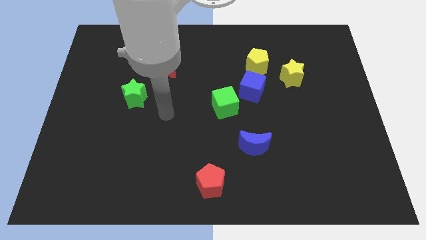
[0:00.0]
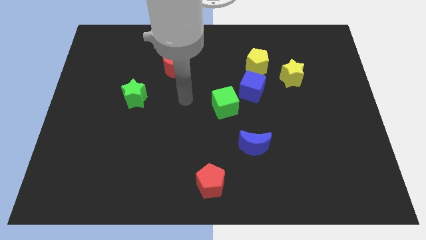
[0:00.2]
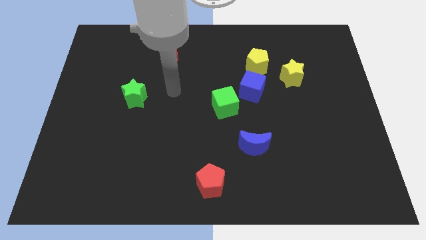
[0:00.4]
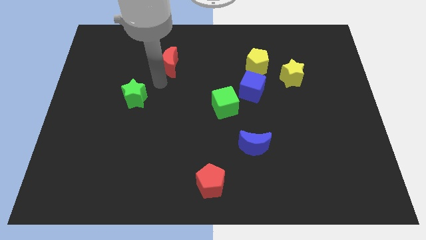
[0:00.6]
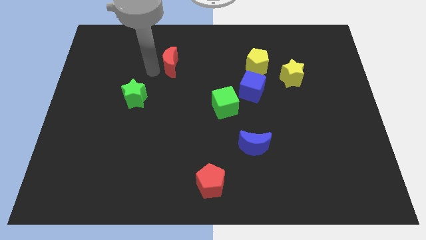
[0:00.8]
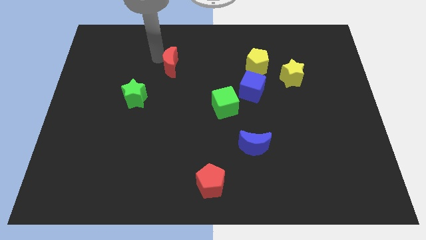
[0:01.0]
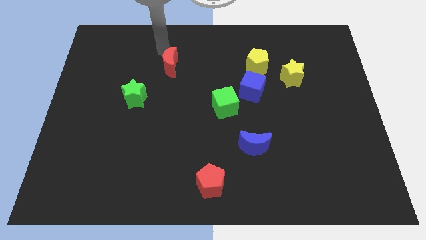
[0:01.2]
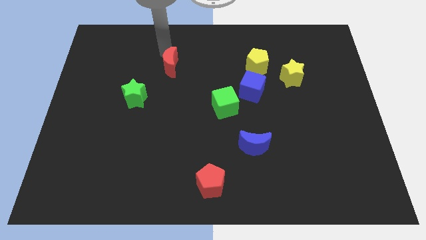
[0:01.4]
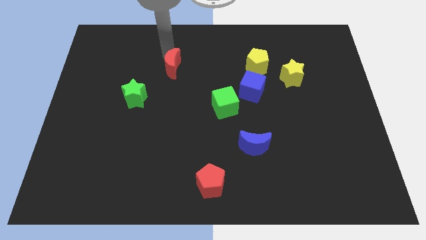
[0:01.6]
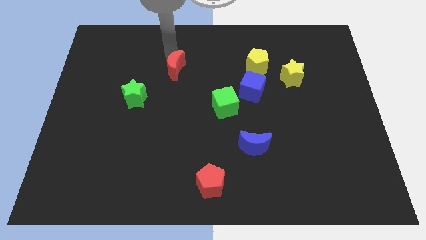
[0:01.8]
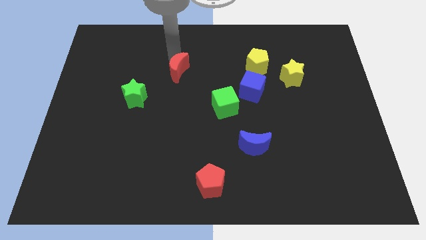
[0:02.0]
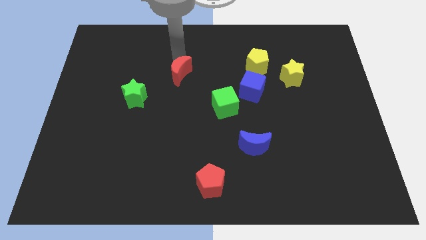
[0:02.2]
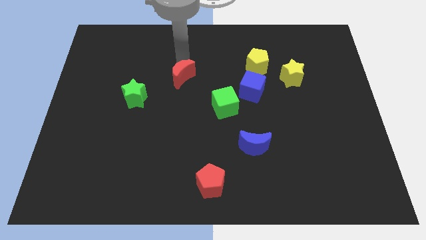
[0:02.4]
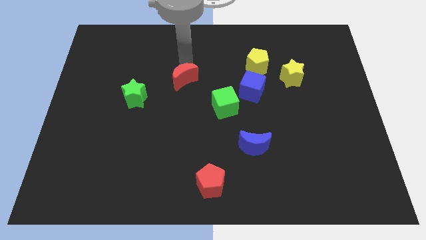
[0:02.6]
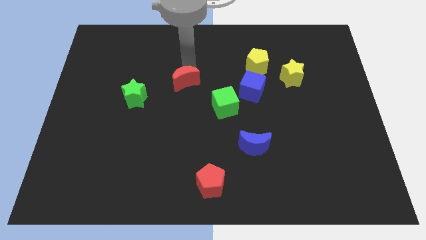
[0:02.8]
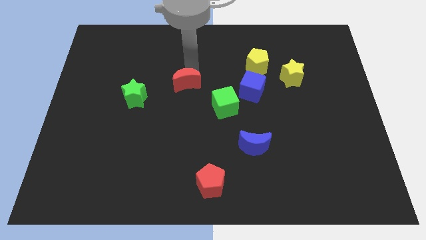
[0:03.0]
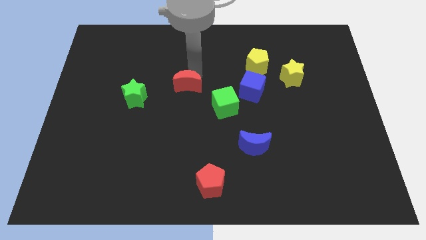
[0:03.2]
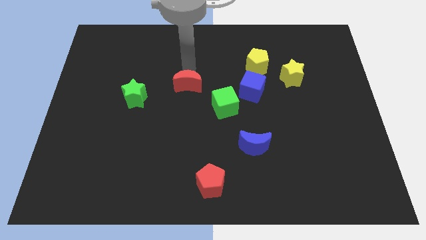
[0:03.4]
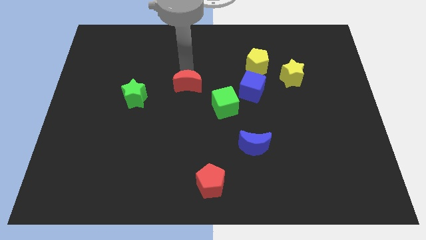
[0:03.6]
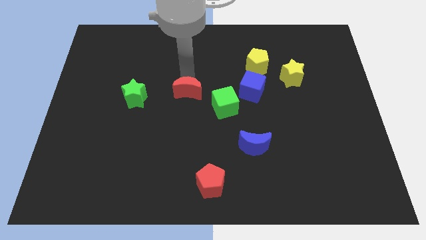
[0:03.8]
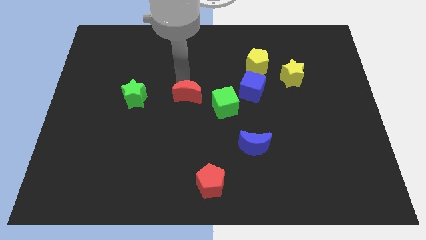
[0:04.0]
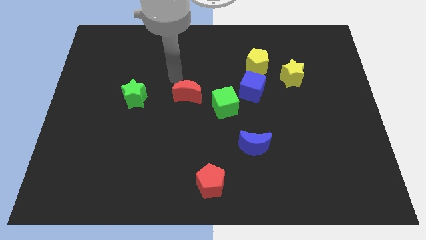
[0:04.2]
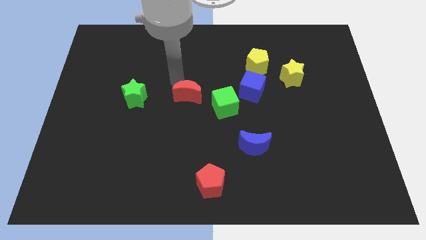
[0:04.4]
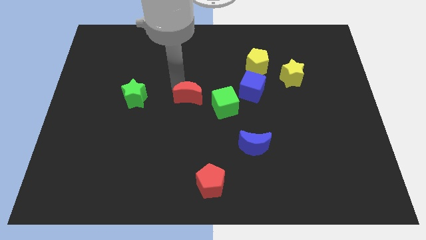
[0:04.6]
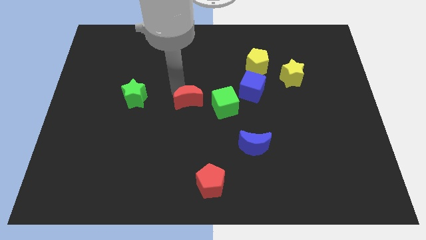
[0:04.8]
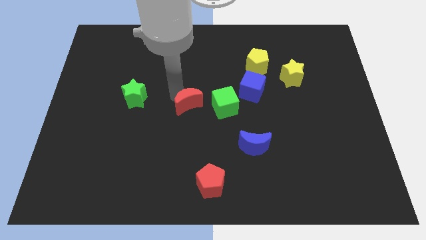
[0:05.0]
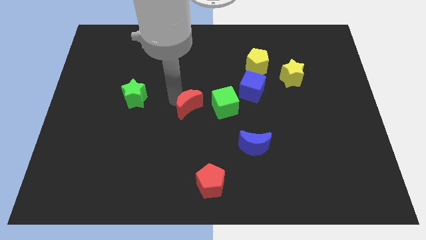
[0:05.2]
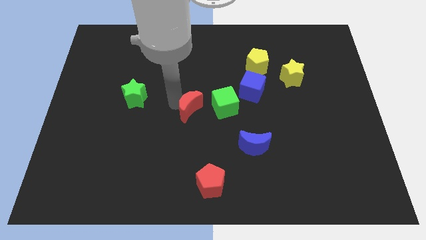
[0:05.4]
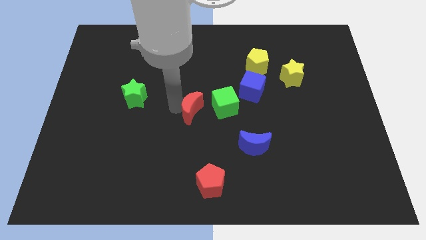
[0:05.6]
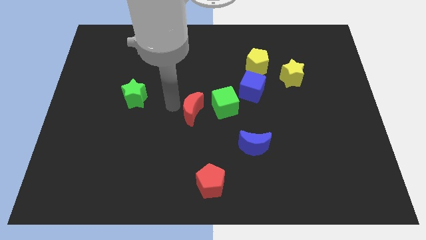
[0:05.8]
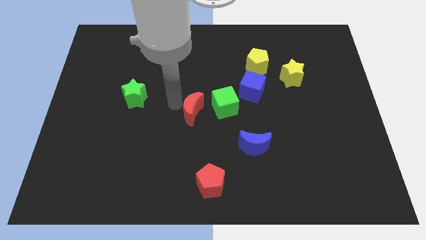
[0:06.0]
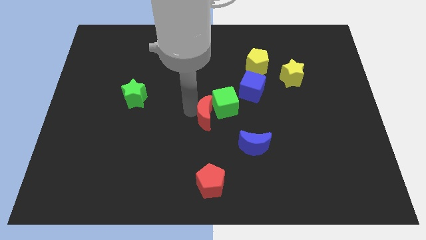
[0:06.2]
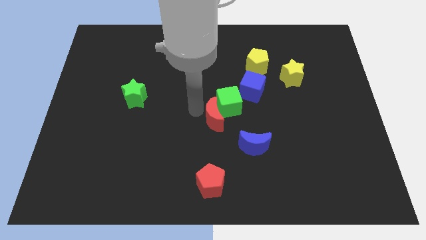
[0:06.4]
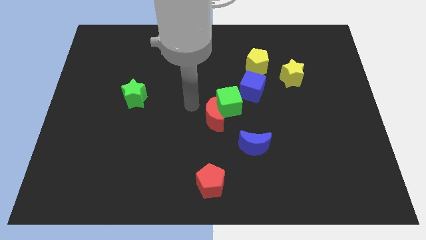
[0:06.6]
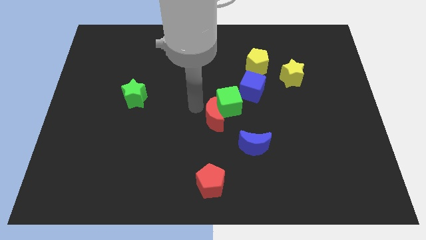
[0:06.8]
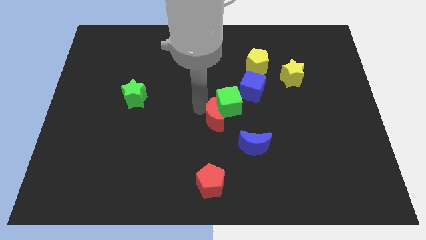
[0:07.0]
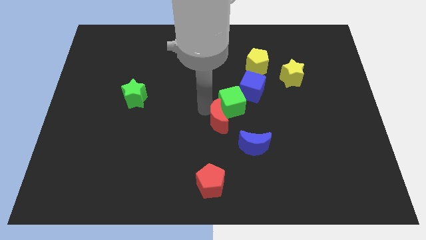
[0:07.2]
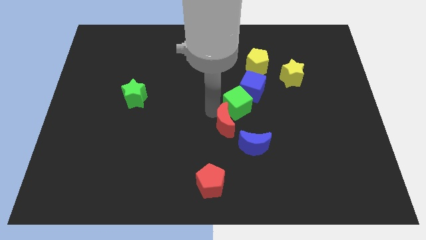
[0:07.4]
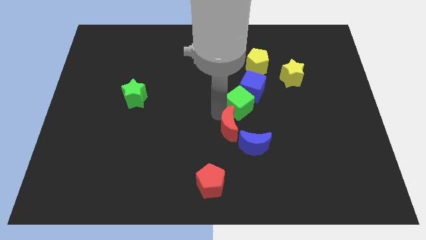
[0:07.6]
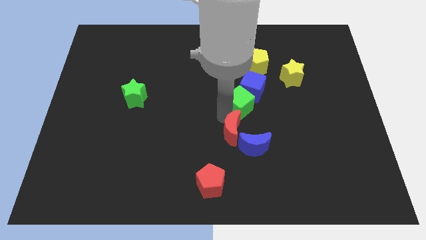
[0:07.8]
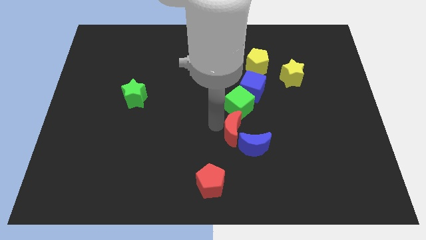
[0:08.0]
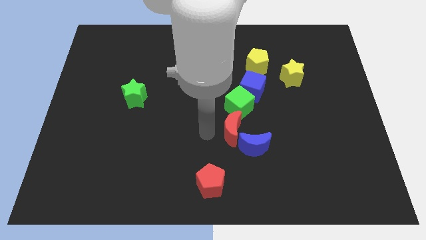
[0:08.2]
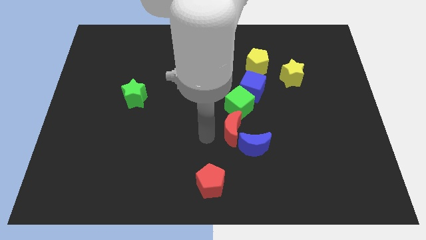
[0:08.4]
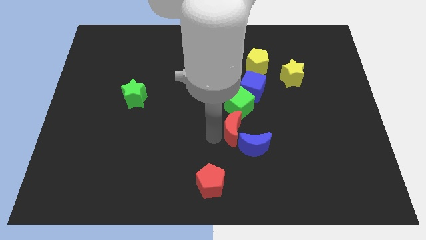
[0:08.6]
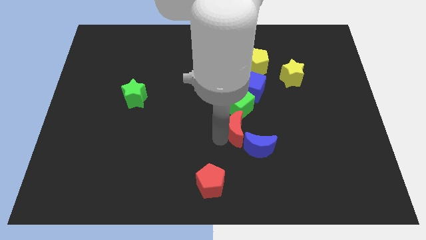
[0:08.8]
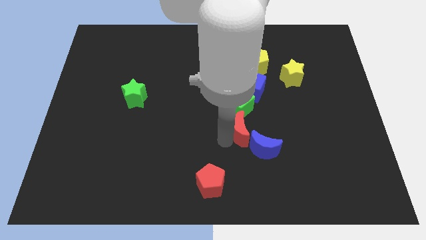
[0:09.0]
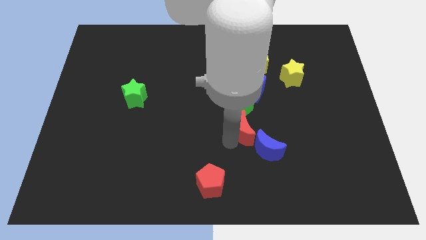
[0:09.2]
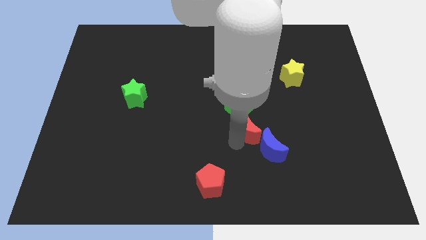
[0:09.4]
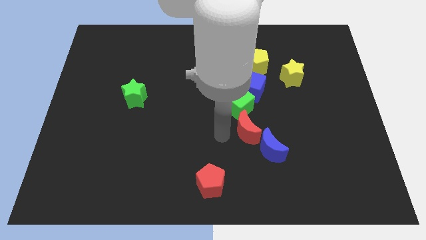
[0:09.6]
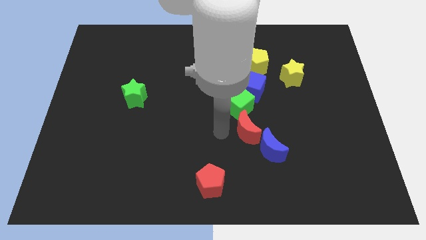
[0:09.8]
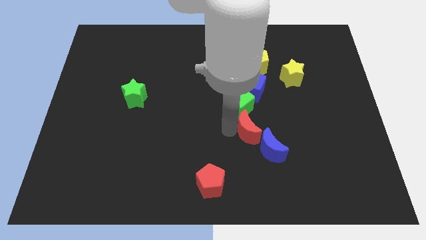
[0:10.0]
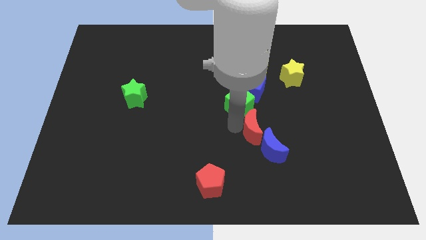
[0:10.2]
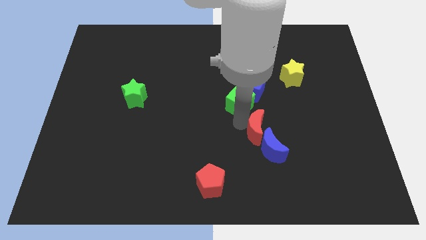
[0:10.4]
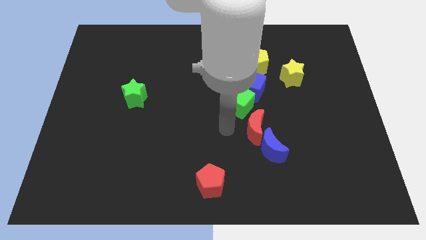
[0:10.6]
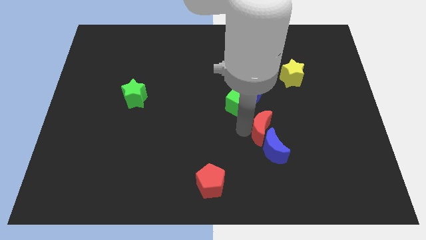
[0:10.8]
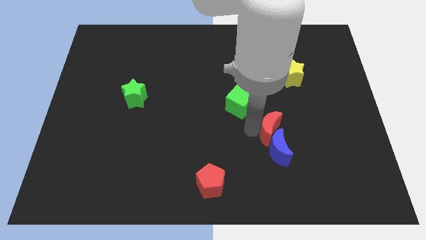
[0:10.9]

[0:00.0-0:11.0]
move the red moon to the top right side of the blue moon

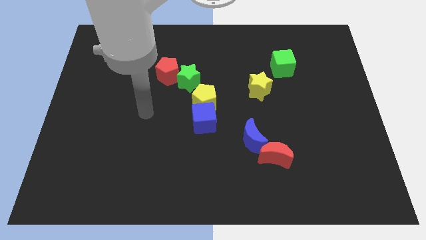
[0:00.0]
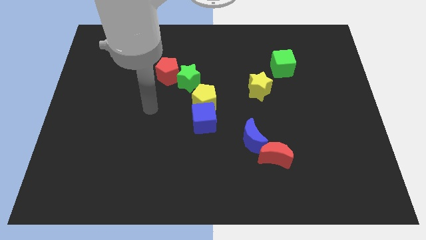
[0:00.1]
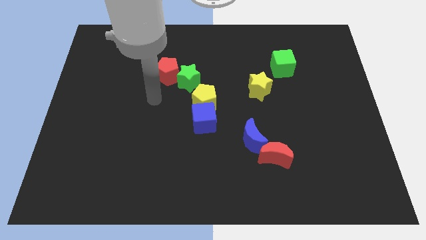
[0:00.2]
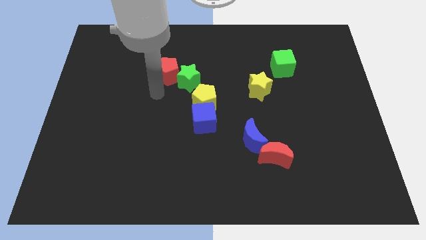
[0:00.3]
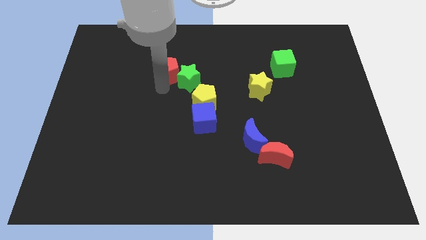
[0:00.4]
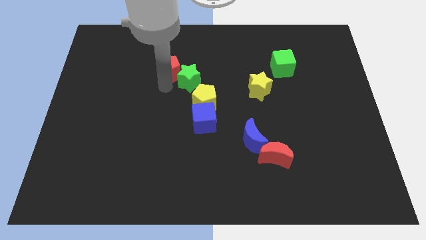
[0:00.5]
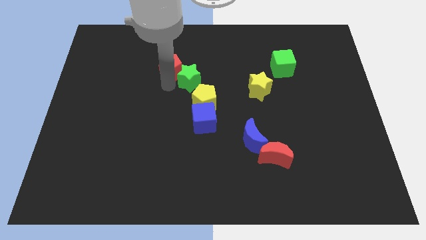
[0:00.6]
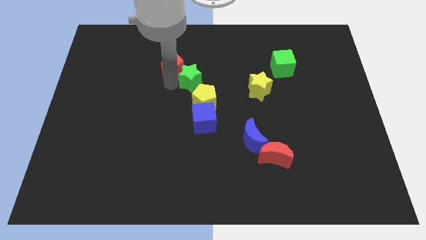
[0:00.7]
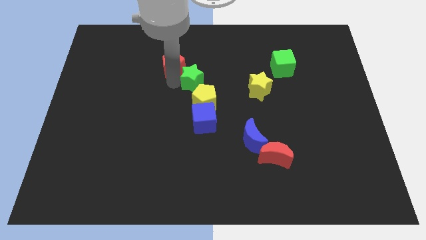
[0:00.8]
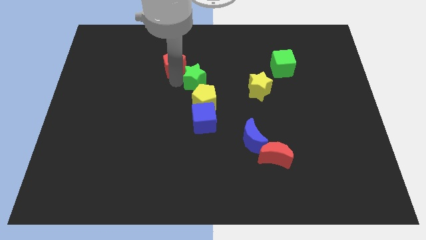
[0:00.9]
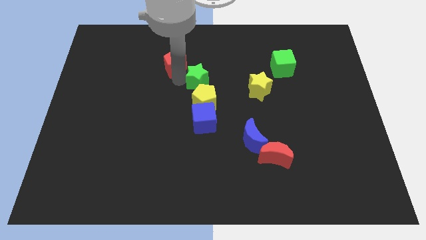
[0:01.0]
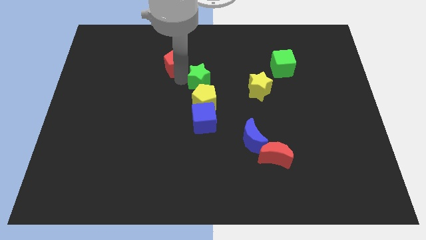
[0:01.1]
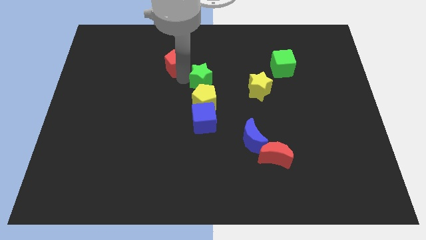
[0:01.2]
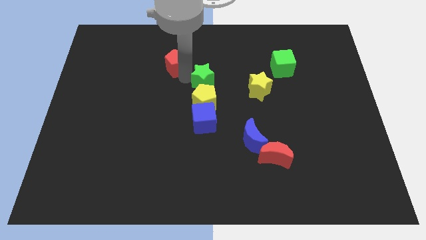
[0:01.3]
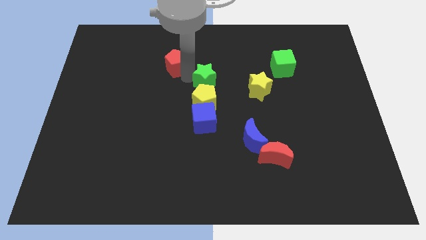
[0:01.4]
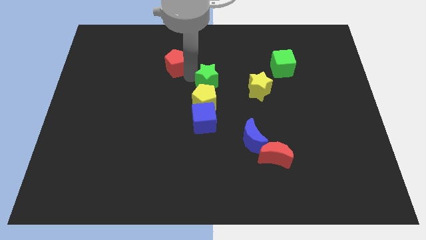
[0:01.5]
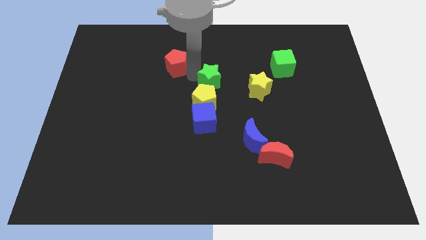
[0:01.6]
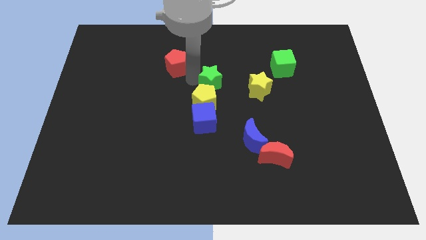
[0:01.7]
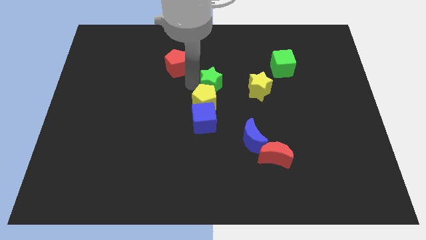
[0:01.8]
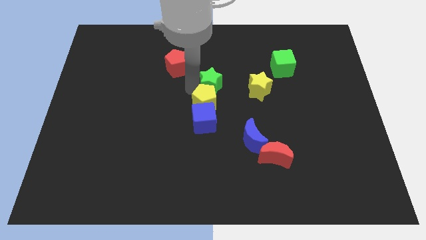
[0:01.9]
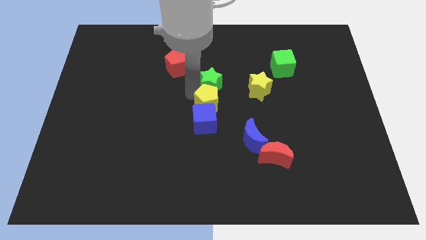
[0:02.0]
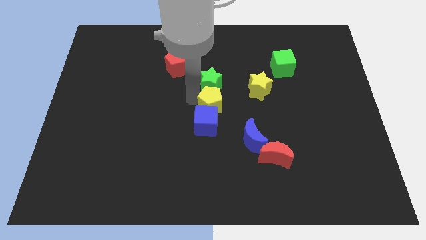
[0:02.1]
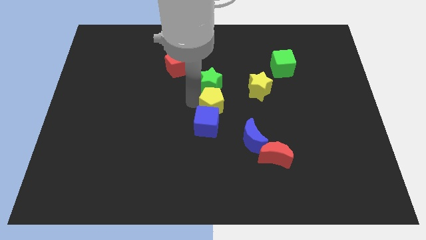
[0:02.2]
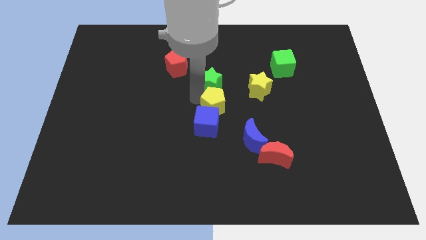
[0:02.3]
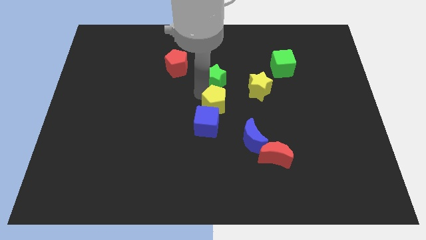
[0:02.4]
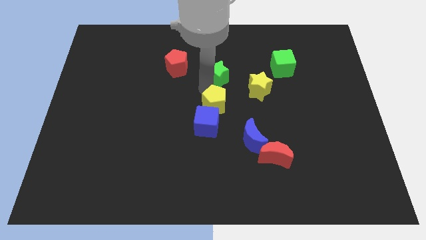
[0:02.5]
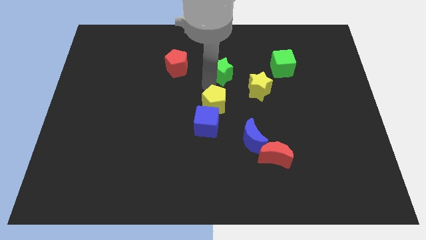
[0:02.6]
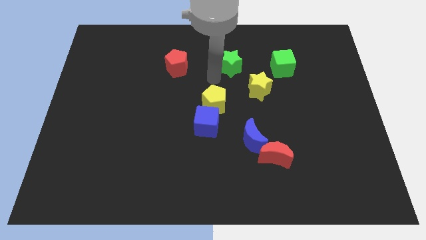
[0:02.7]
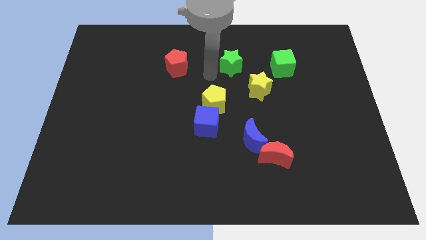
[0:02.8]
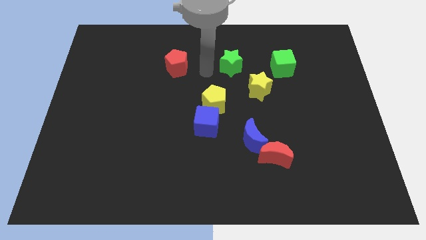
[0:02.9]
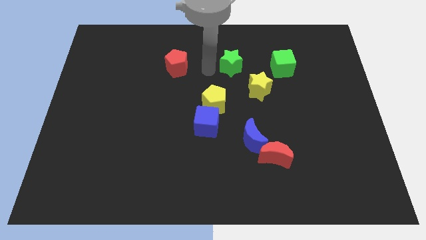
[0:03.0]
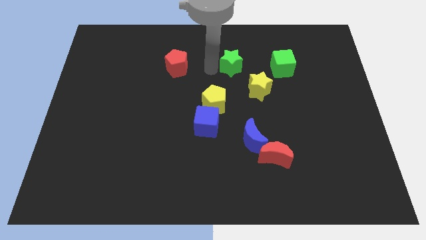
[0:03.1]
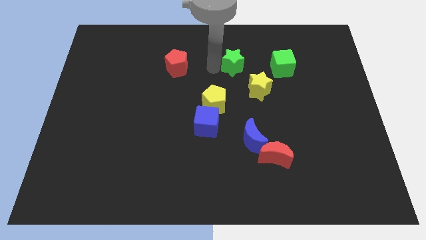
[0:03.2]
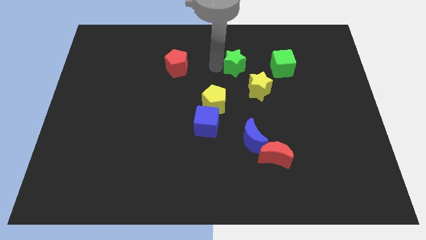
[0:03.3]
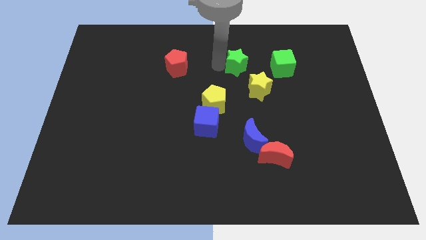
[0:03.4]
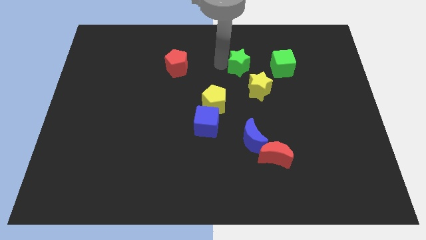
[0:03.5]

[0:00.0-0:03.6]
move the green star to the top side of the yellow star
